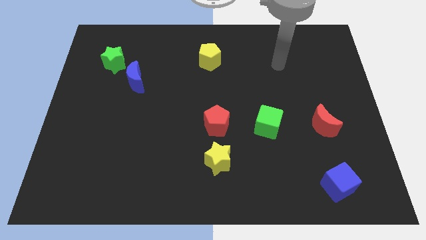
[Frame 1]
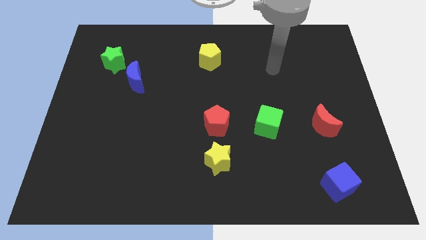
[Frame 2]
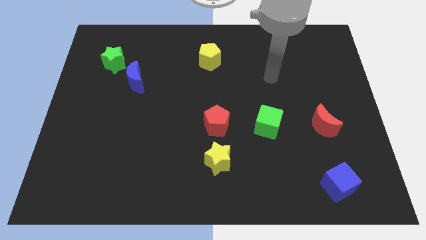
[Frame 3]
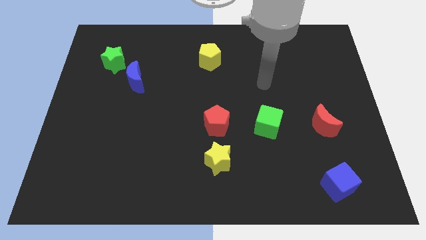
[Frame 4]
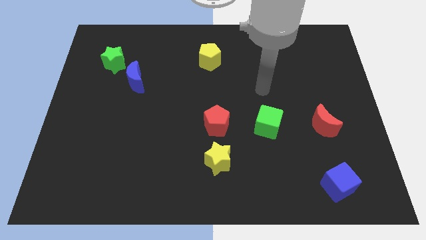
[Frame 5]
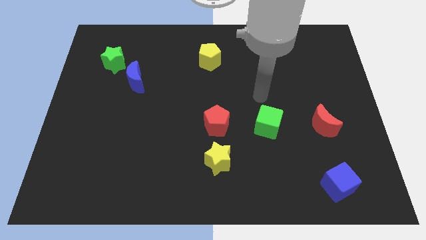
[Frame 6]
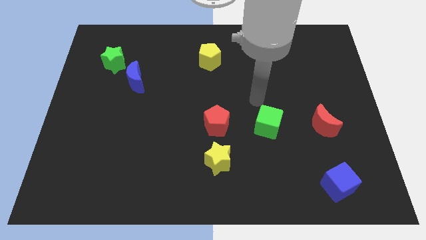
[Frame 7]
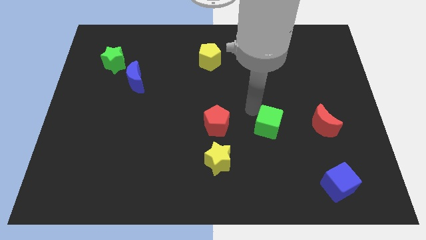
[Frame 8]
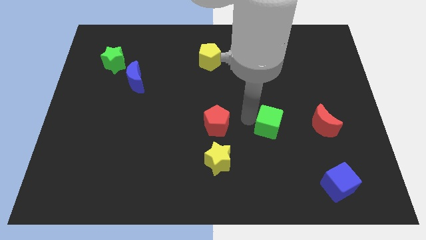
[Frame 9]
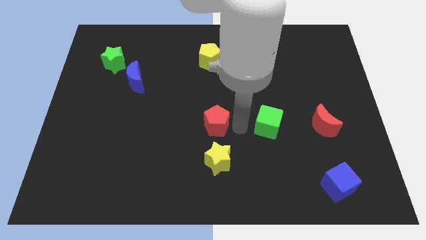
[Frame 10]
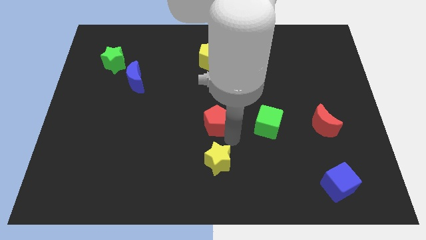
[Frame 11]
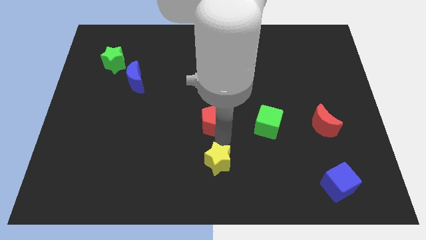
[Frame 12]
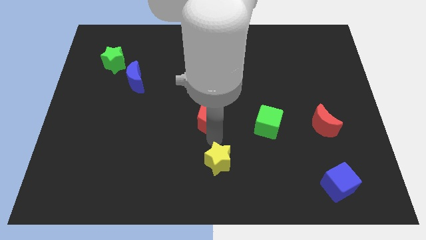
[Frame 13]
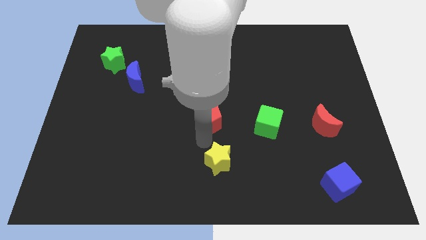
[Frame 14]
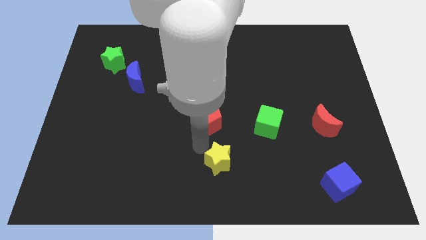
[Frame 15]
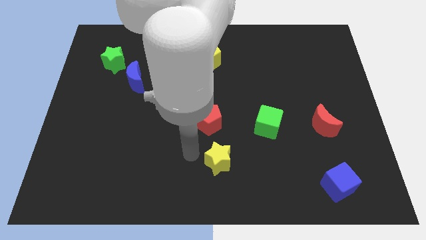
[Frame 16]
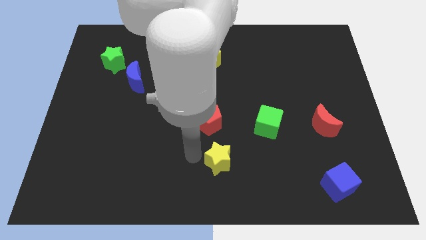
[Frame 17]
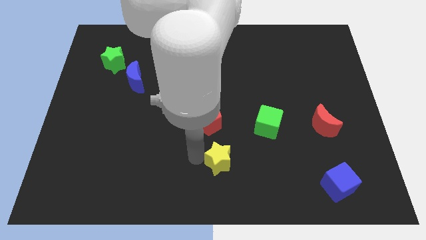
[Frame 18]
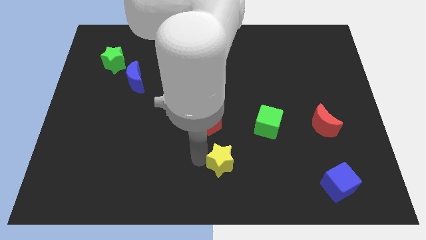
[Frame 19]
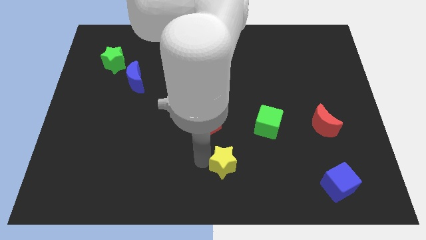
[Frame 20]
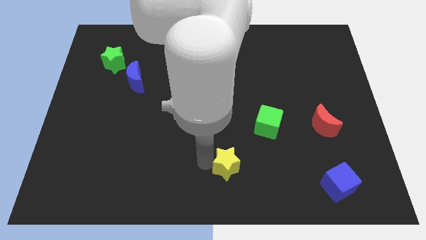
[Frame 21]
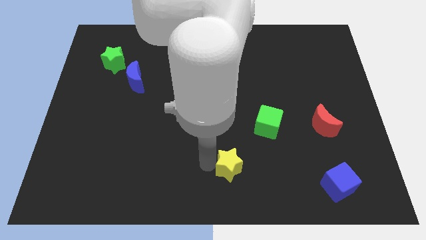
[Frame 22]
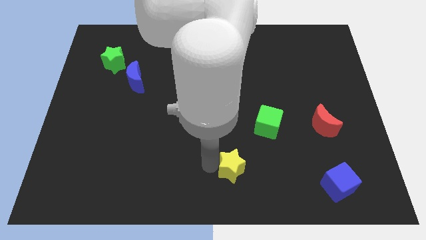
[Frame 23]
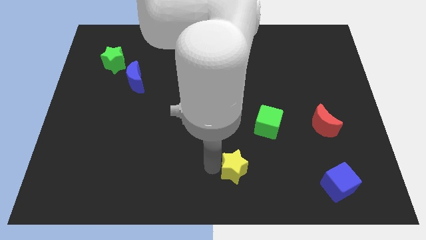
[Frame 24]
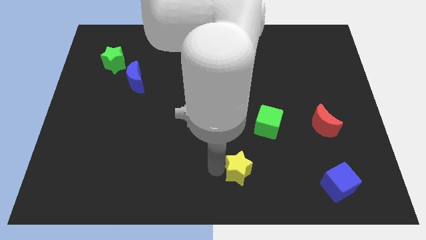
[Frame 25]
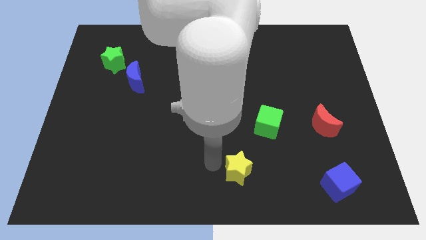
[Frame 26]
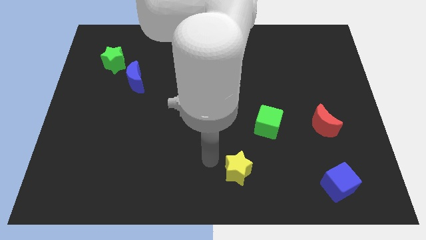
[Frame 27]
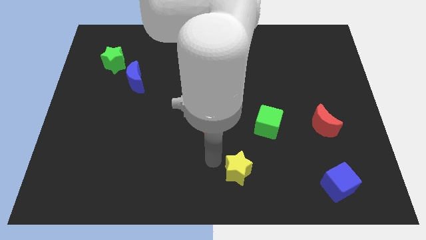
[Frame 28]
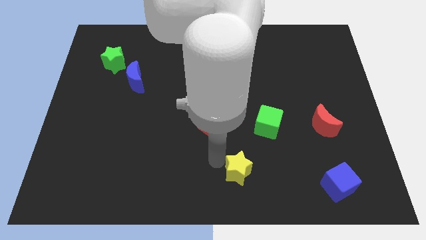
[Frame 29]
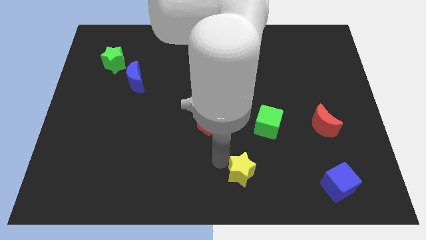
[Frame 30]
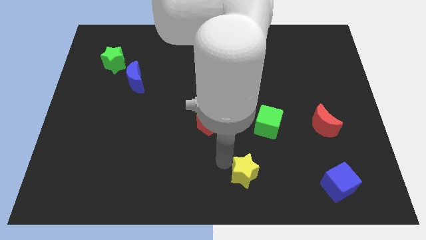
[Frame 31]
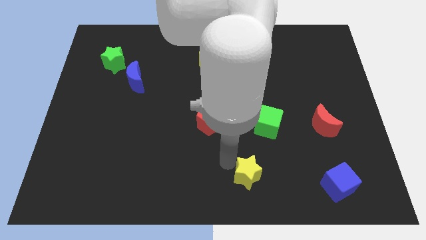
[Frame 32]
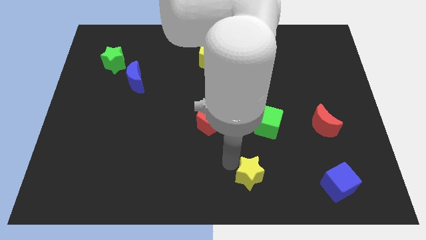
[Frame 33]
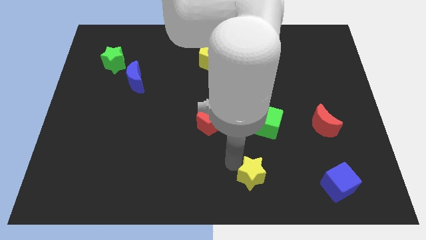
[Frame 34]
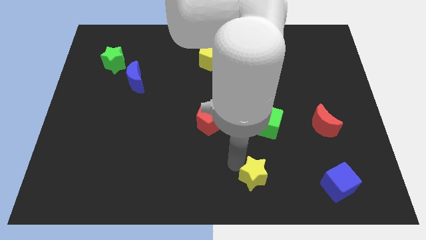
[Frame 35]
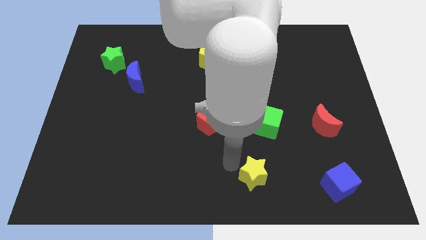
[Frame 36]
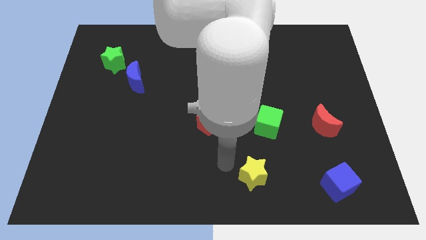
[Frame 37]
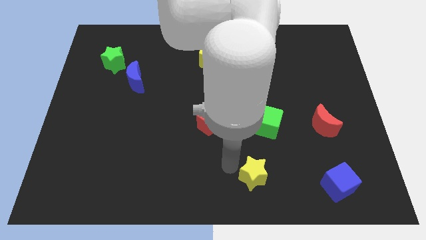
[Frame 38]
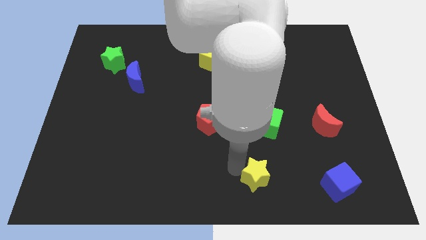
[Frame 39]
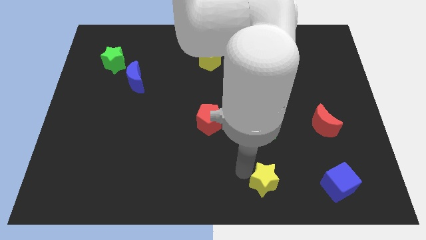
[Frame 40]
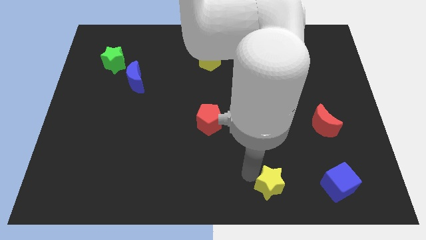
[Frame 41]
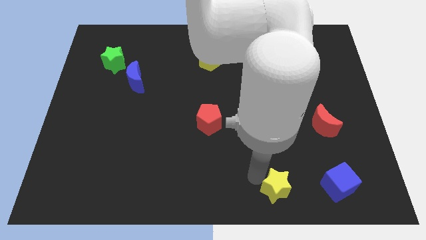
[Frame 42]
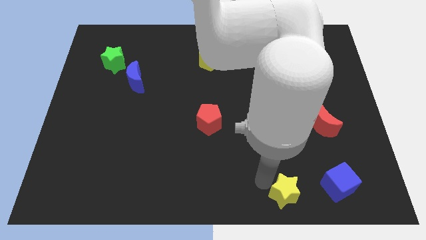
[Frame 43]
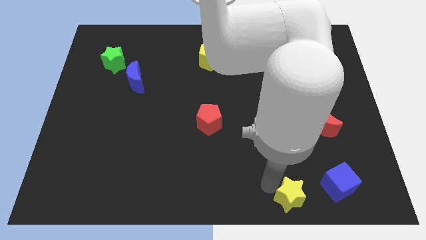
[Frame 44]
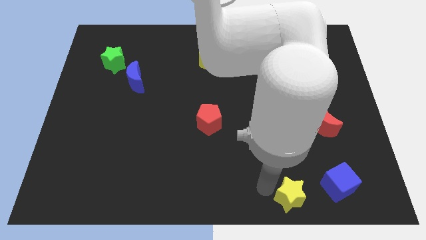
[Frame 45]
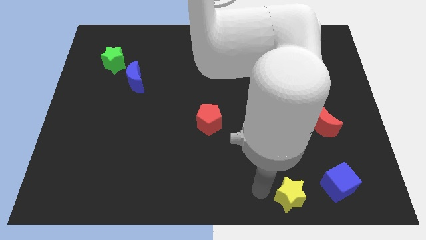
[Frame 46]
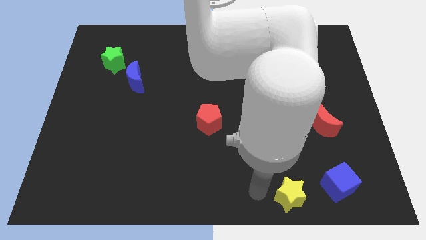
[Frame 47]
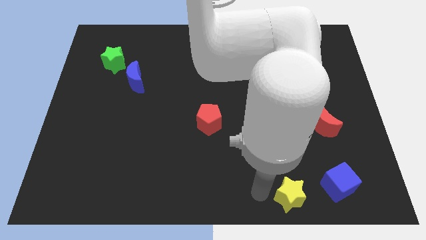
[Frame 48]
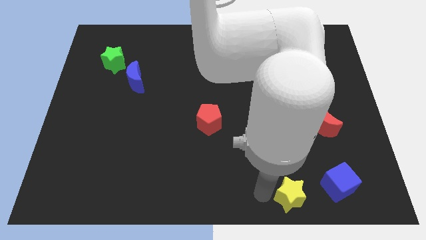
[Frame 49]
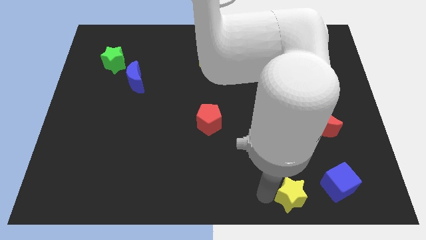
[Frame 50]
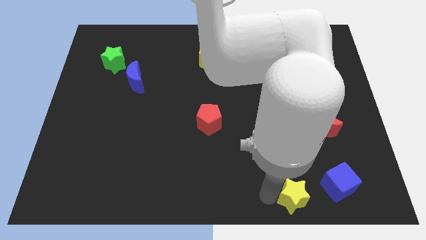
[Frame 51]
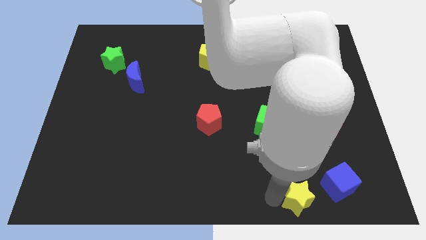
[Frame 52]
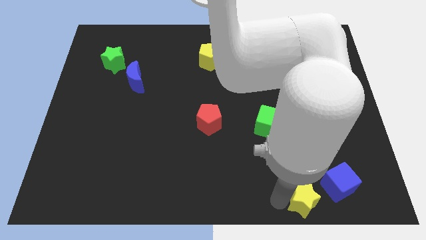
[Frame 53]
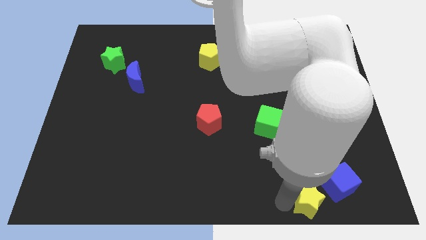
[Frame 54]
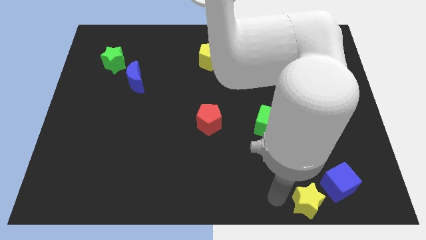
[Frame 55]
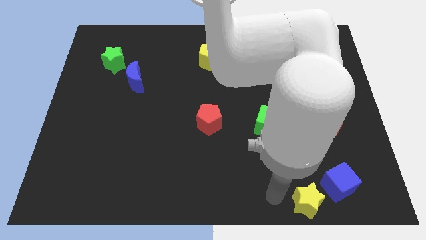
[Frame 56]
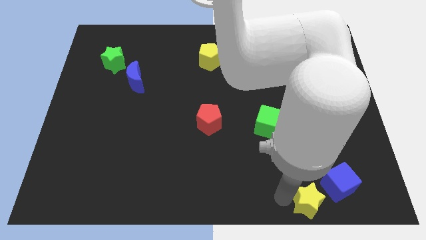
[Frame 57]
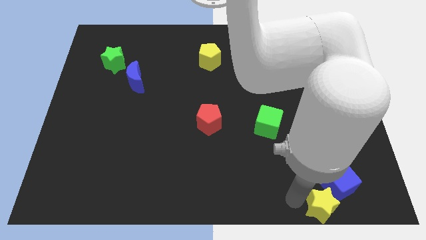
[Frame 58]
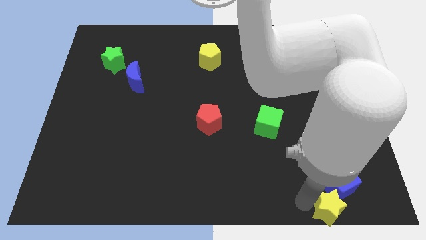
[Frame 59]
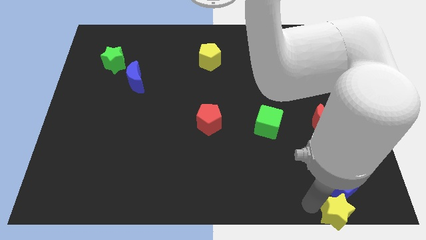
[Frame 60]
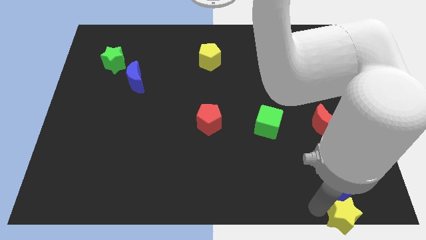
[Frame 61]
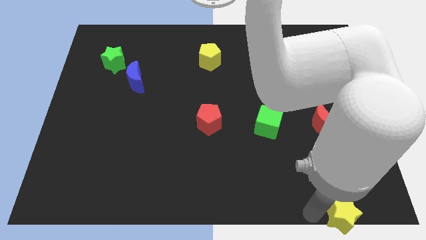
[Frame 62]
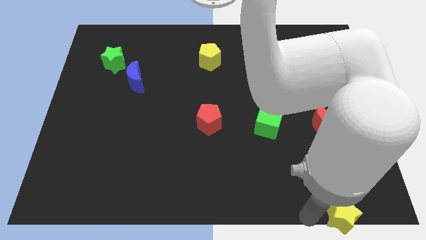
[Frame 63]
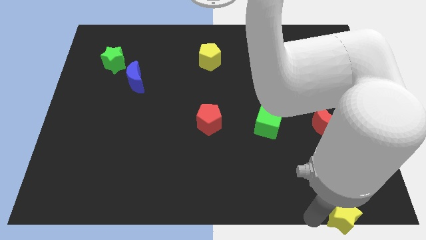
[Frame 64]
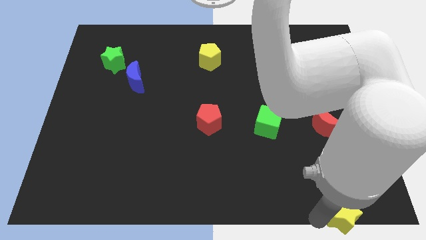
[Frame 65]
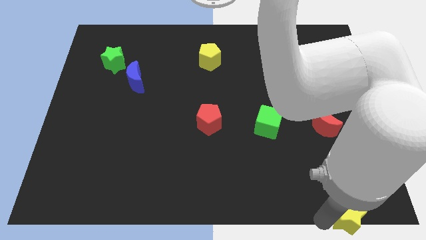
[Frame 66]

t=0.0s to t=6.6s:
put the yellow star to the bottom right corner
